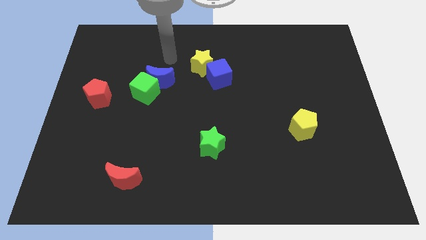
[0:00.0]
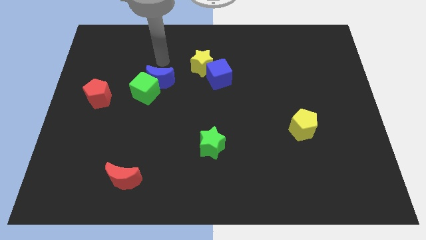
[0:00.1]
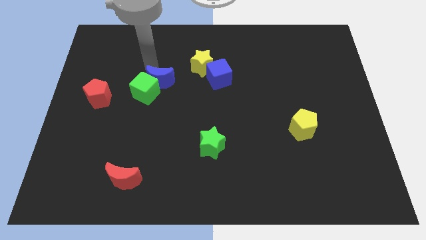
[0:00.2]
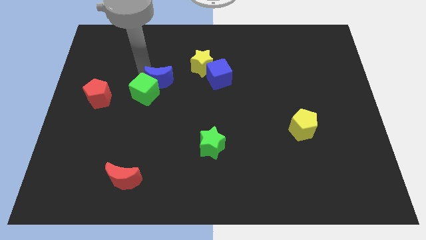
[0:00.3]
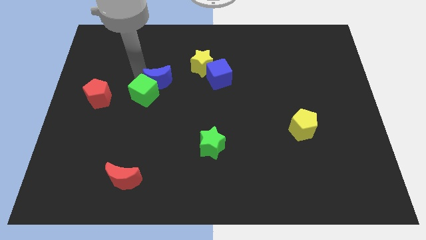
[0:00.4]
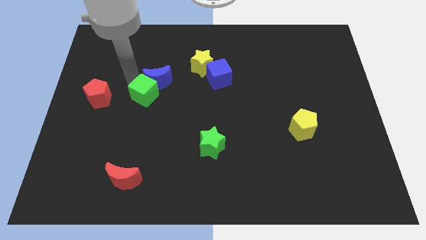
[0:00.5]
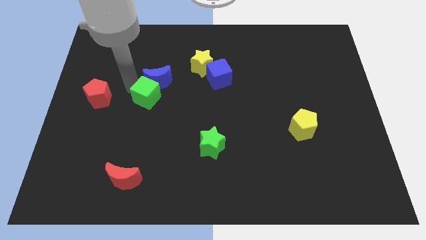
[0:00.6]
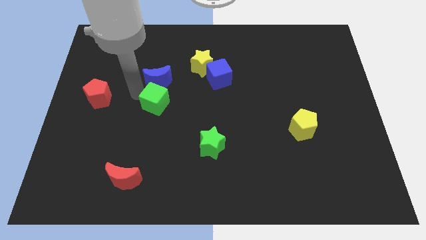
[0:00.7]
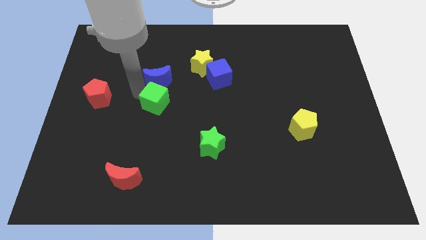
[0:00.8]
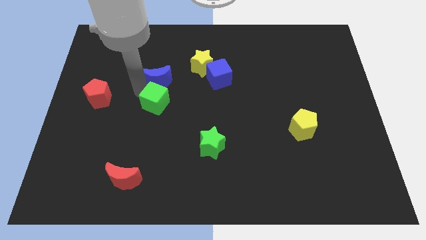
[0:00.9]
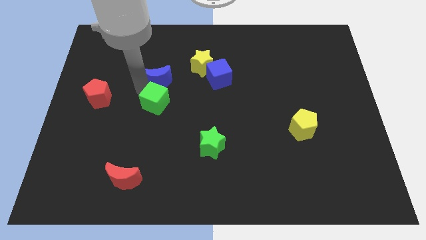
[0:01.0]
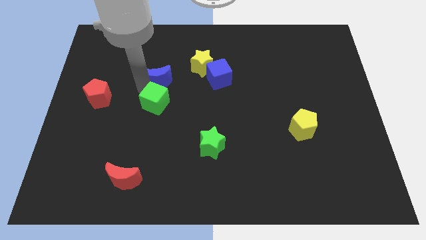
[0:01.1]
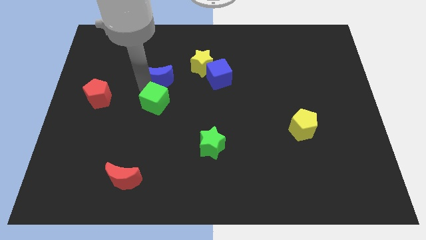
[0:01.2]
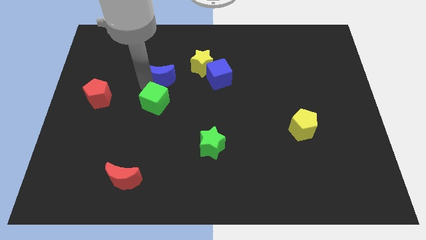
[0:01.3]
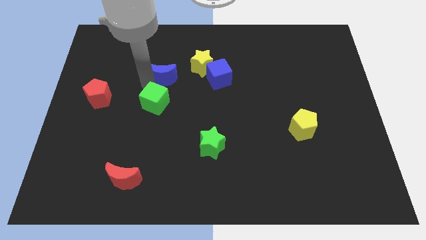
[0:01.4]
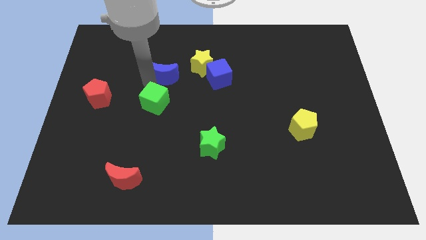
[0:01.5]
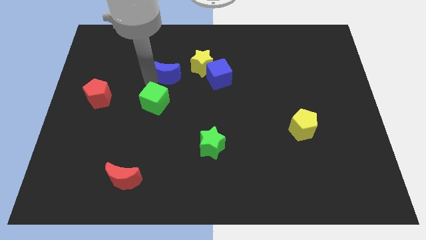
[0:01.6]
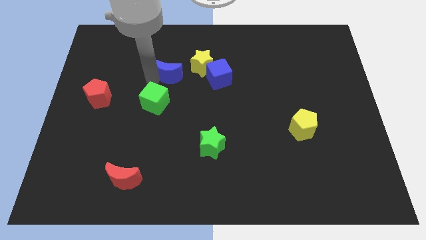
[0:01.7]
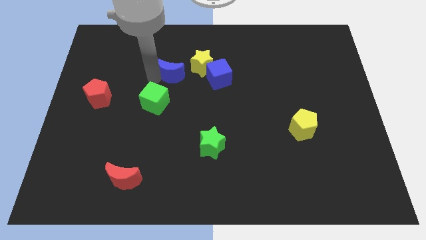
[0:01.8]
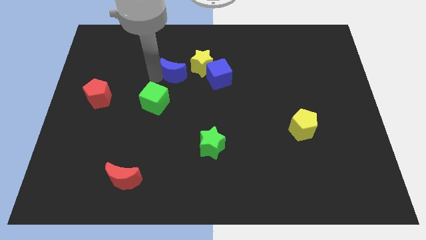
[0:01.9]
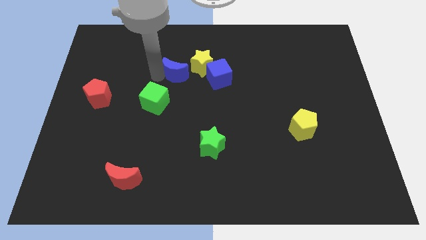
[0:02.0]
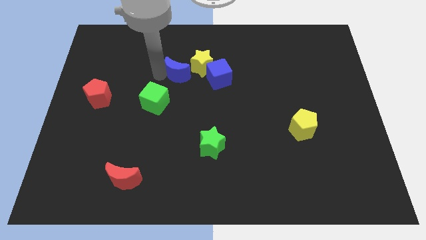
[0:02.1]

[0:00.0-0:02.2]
move the blue moon away from the green cube

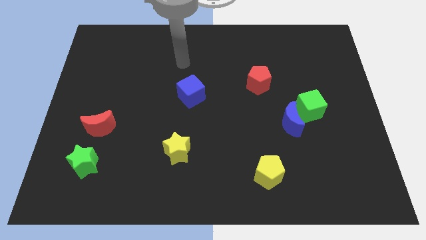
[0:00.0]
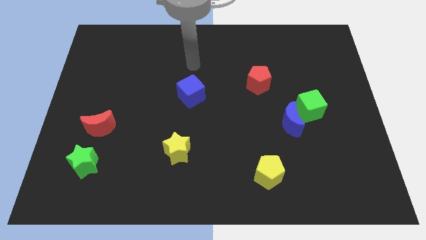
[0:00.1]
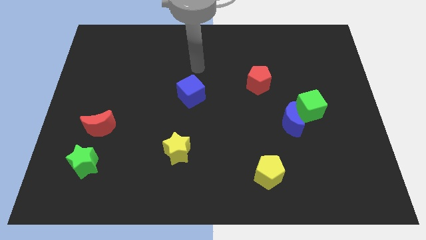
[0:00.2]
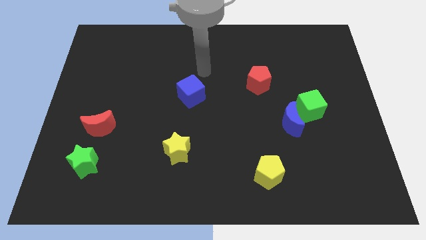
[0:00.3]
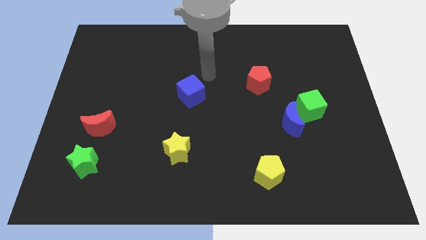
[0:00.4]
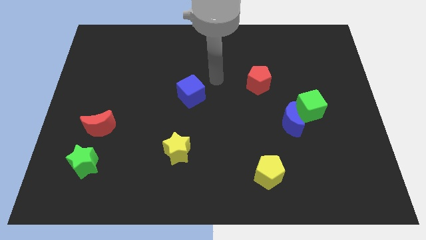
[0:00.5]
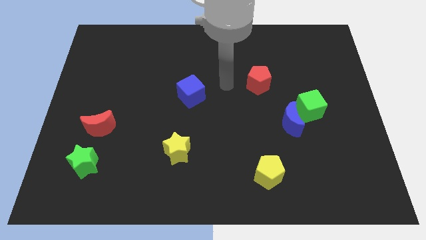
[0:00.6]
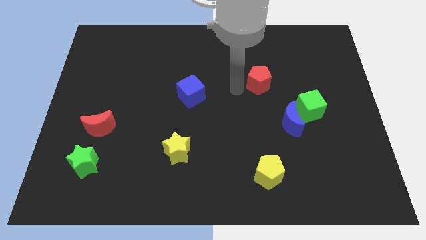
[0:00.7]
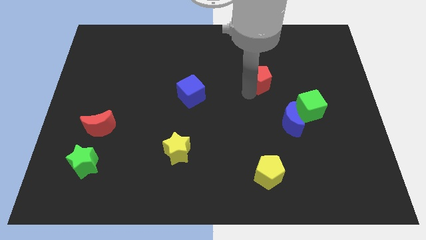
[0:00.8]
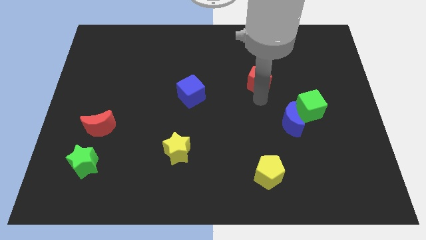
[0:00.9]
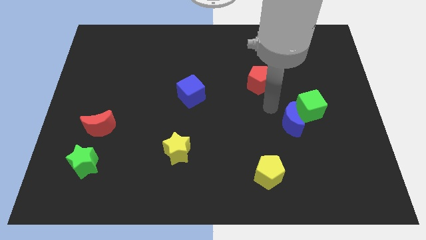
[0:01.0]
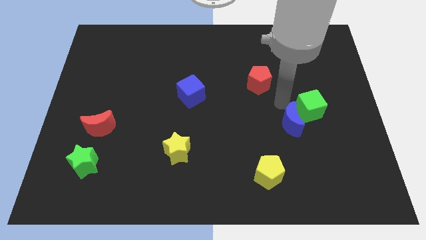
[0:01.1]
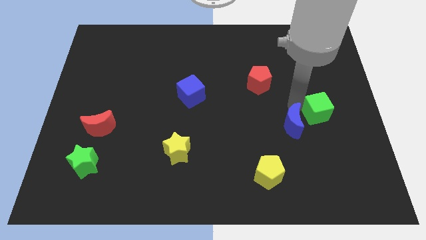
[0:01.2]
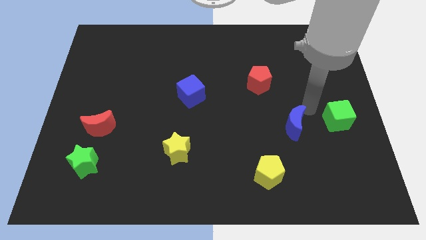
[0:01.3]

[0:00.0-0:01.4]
separate the blue moon from the green cube

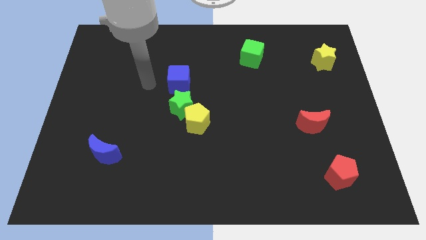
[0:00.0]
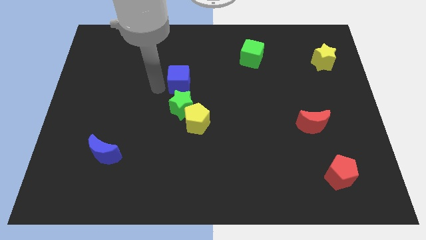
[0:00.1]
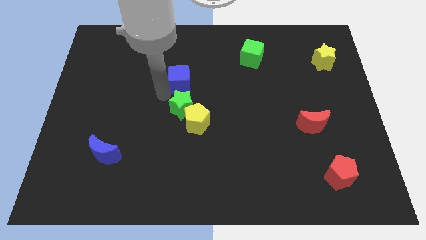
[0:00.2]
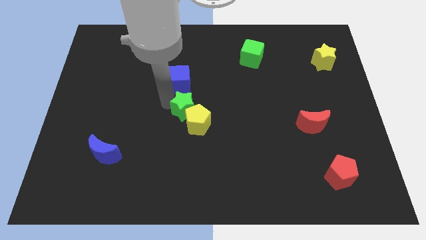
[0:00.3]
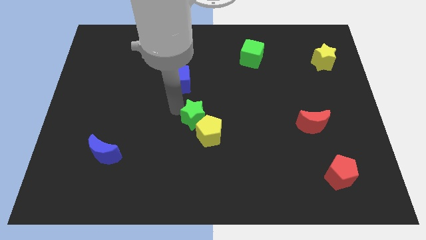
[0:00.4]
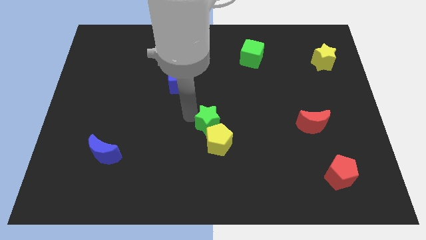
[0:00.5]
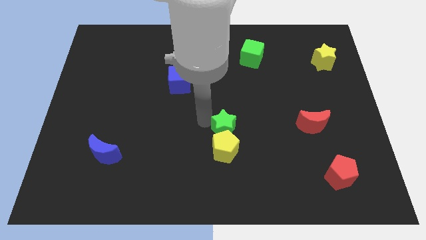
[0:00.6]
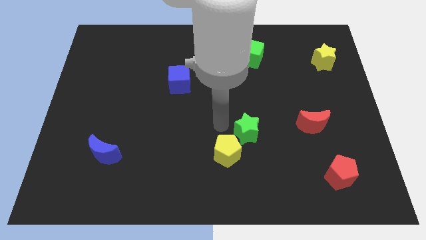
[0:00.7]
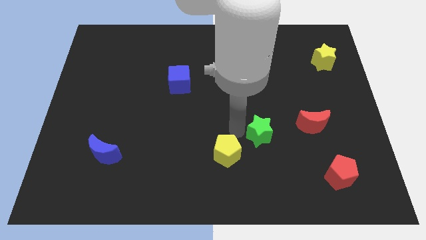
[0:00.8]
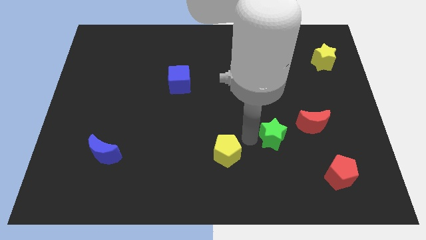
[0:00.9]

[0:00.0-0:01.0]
pull the yellow pentagon apart from the green star

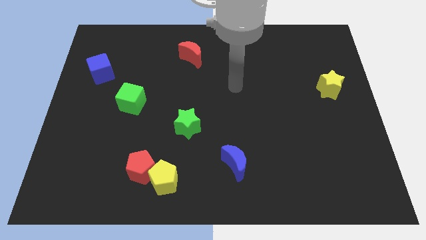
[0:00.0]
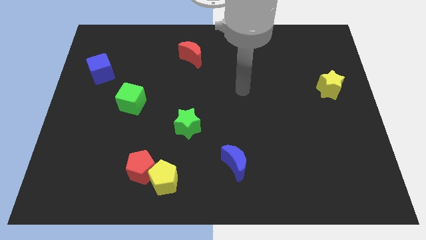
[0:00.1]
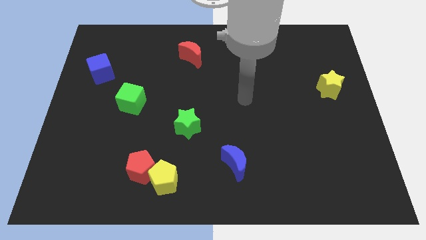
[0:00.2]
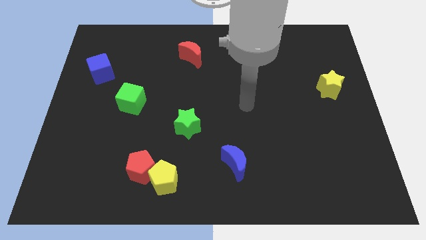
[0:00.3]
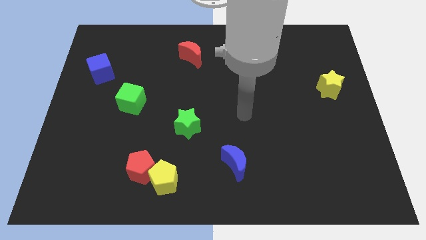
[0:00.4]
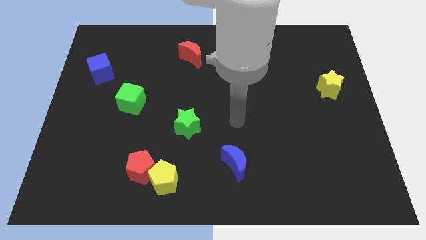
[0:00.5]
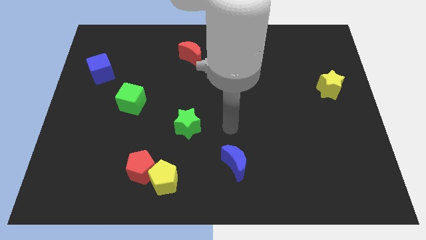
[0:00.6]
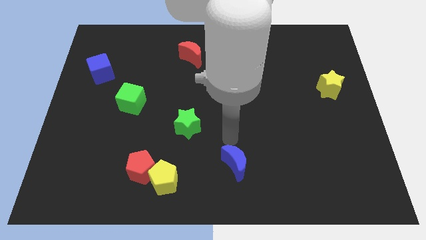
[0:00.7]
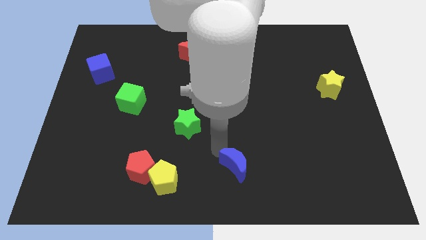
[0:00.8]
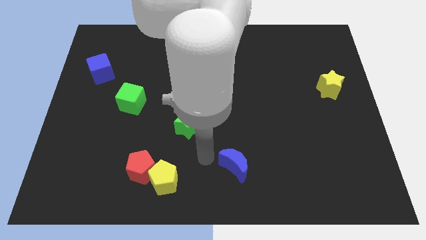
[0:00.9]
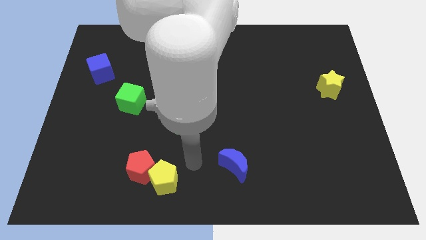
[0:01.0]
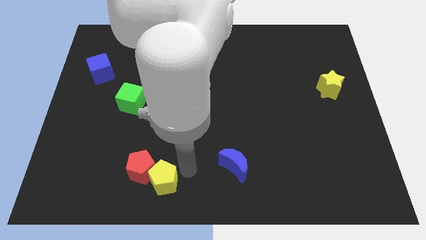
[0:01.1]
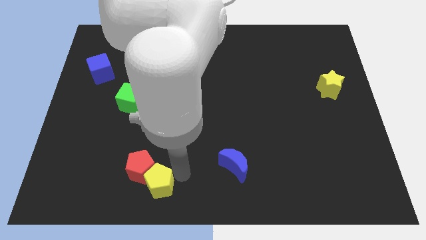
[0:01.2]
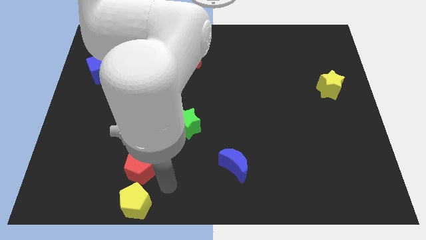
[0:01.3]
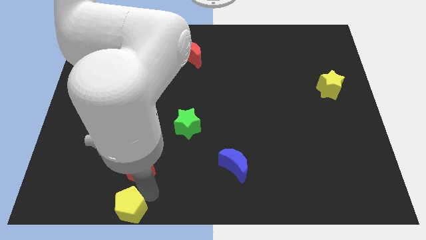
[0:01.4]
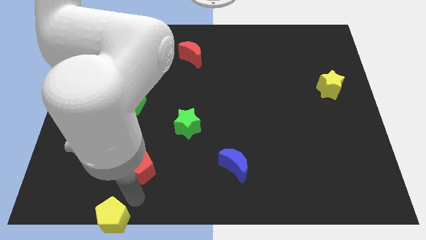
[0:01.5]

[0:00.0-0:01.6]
separate the red pentagon from the yellow pentagon

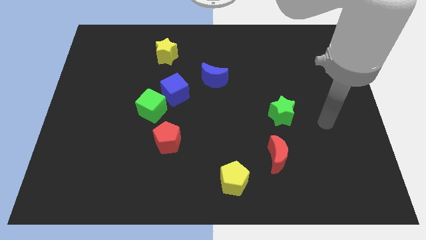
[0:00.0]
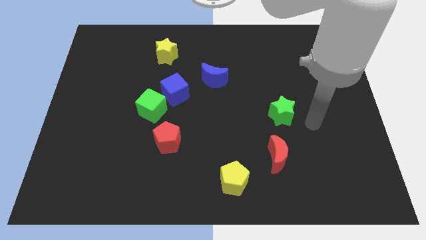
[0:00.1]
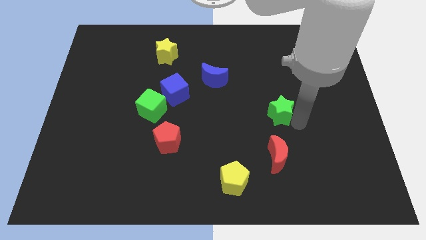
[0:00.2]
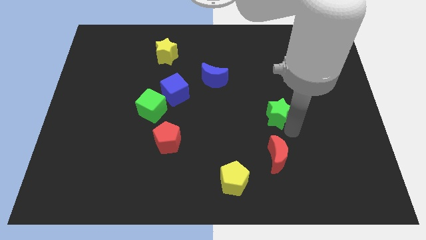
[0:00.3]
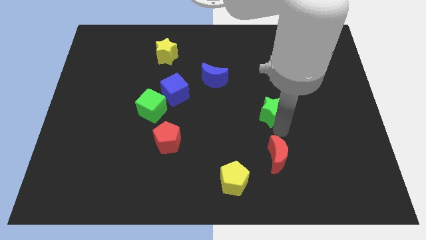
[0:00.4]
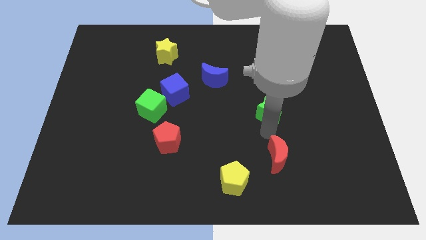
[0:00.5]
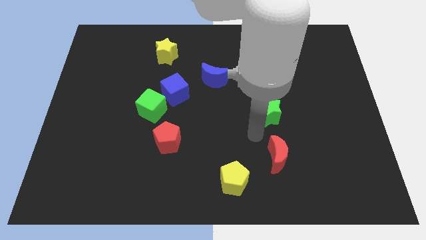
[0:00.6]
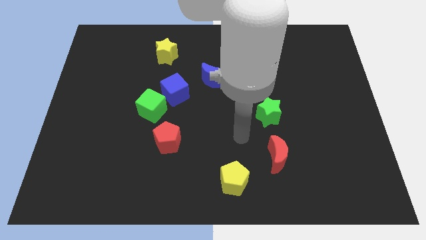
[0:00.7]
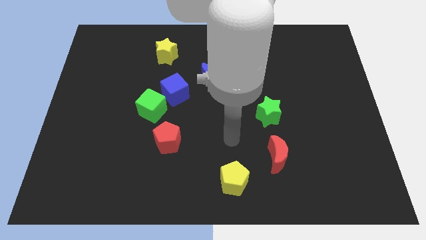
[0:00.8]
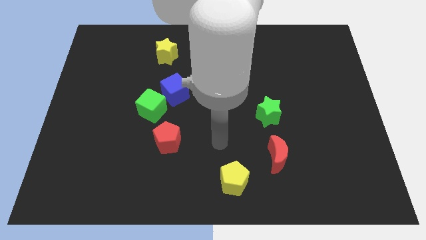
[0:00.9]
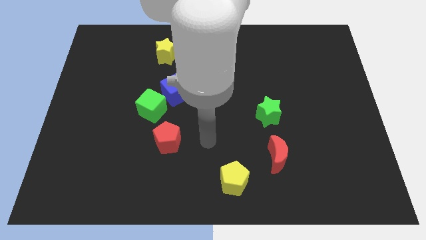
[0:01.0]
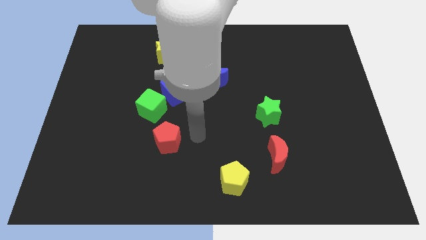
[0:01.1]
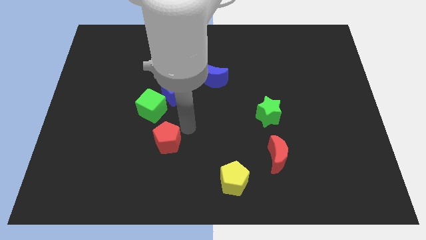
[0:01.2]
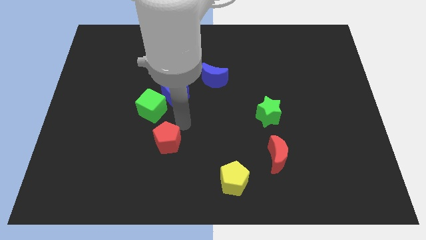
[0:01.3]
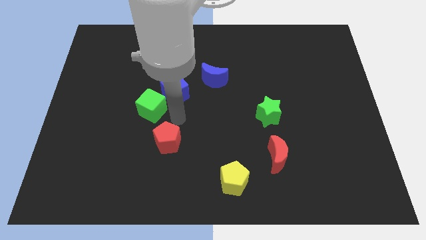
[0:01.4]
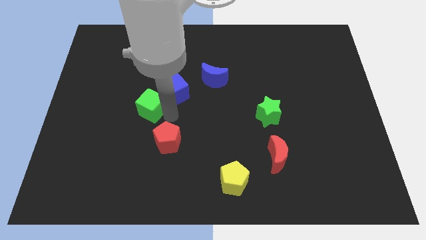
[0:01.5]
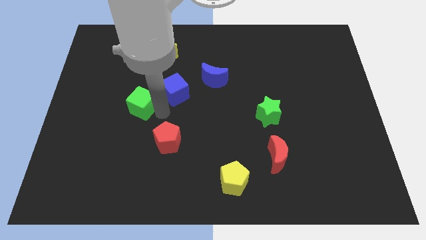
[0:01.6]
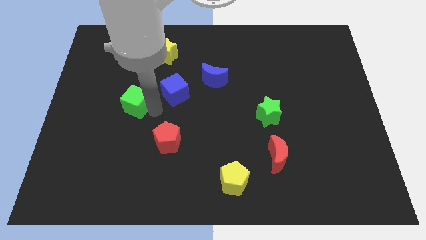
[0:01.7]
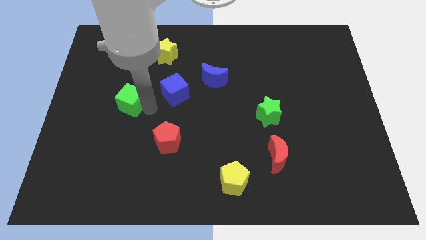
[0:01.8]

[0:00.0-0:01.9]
move the green cube away from the blue cube and red pentagon

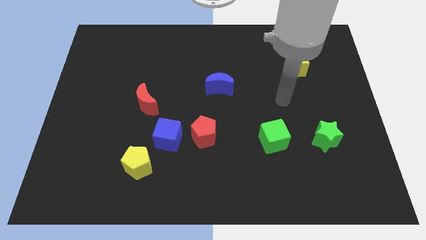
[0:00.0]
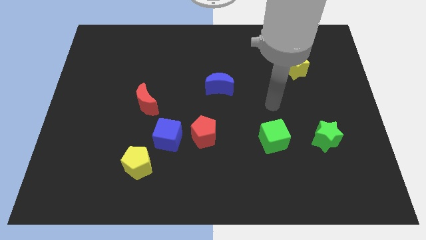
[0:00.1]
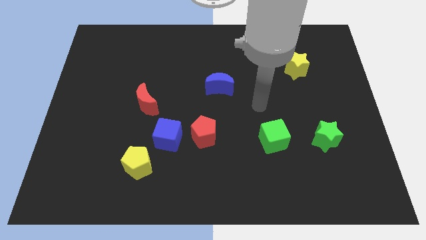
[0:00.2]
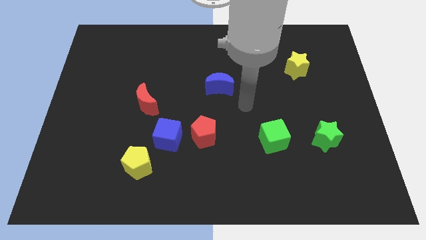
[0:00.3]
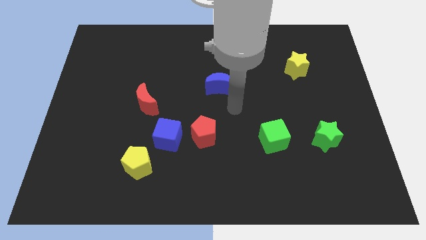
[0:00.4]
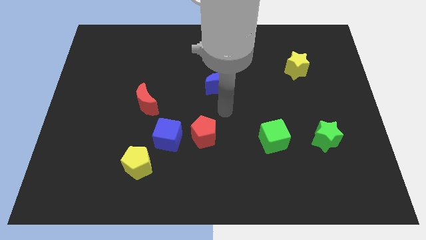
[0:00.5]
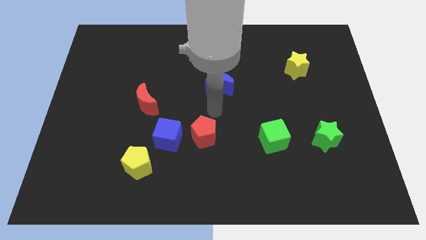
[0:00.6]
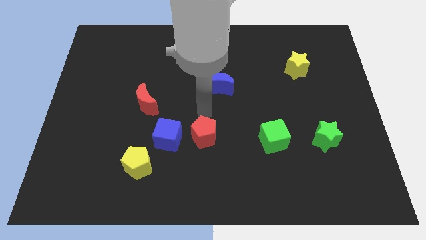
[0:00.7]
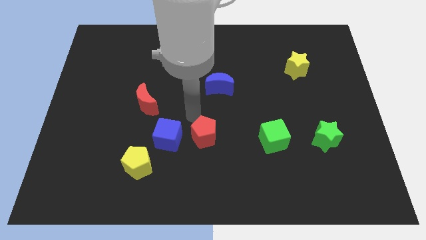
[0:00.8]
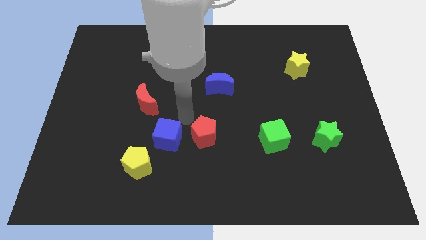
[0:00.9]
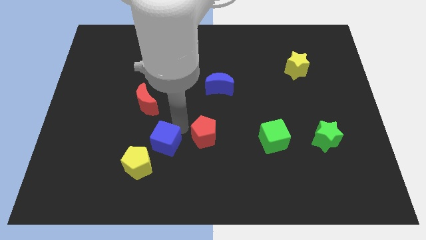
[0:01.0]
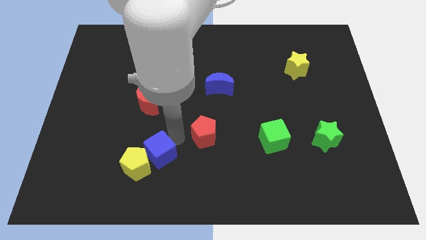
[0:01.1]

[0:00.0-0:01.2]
pull the red pentagon apart from the blue cube

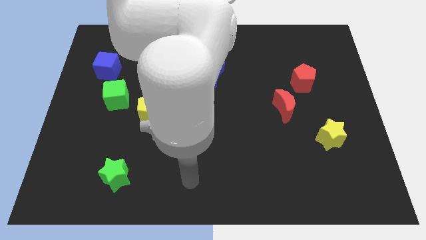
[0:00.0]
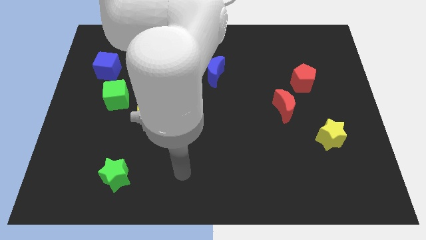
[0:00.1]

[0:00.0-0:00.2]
separate the yellow pentagon from the green cube
